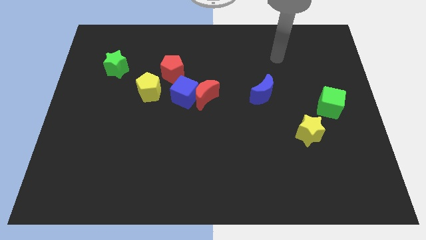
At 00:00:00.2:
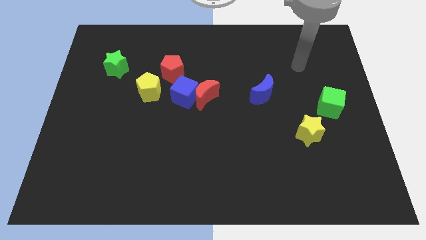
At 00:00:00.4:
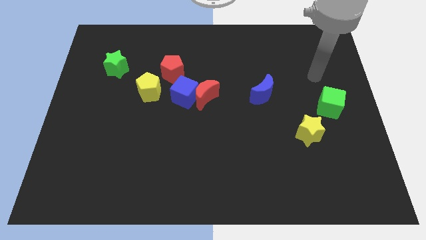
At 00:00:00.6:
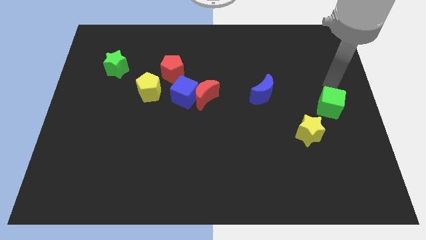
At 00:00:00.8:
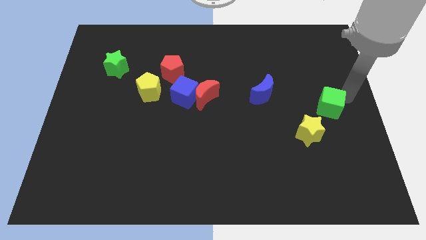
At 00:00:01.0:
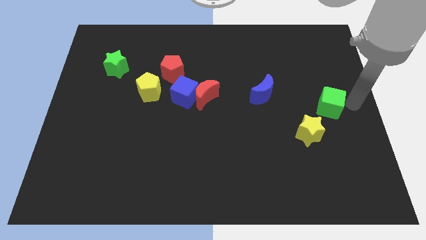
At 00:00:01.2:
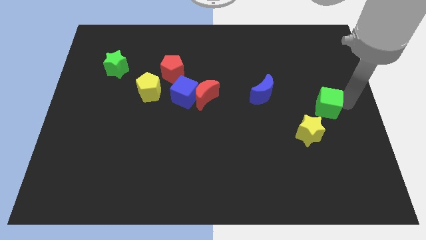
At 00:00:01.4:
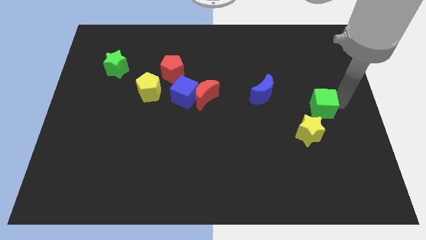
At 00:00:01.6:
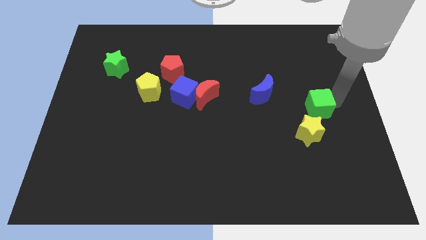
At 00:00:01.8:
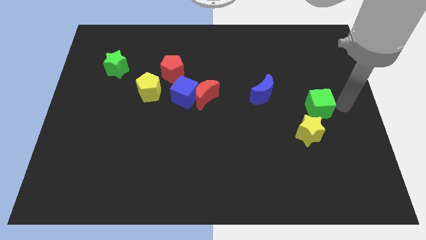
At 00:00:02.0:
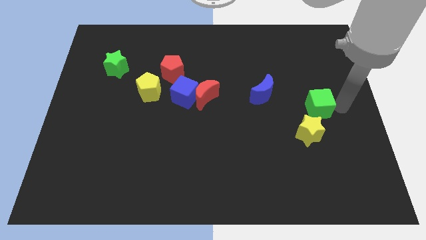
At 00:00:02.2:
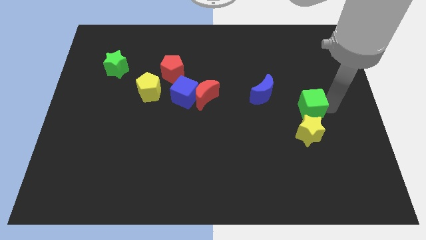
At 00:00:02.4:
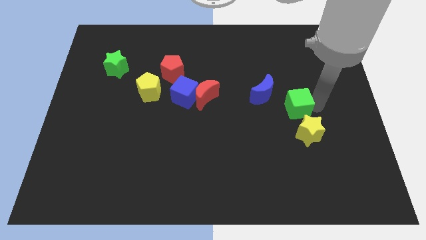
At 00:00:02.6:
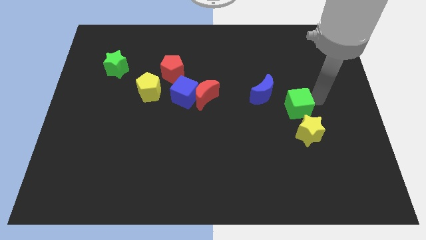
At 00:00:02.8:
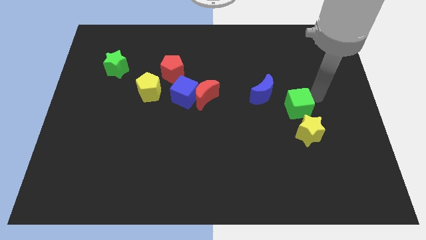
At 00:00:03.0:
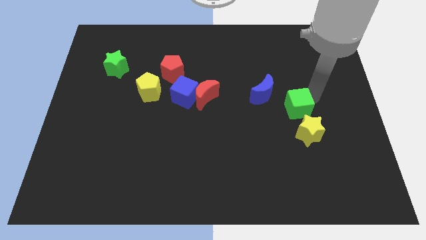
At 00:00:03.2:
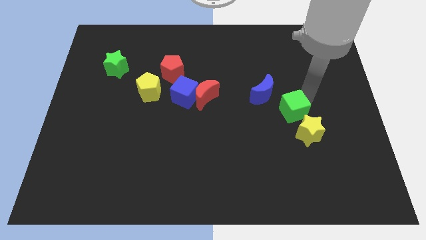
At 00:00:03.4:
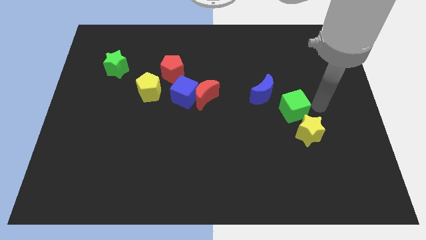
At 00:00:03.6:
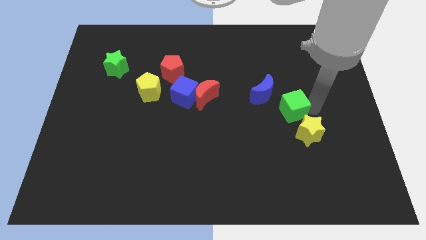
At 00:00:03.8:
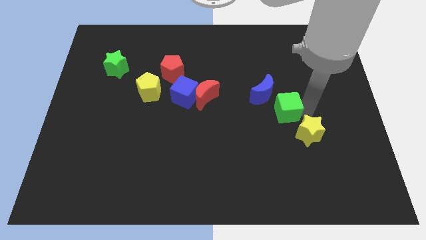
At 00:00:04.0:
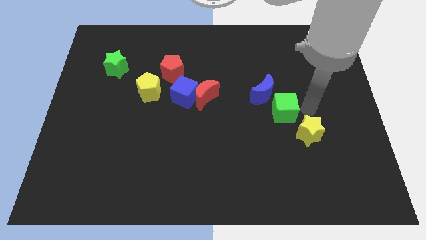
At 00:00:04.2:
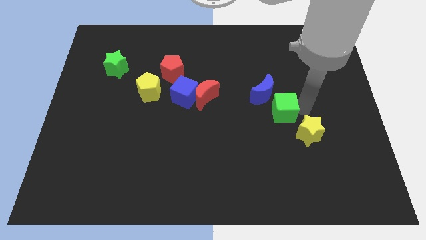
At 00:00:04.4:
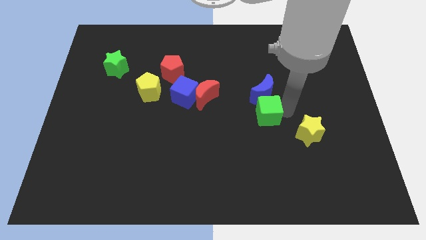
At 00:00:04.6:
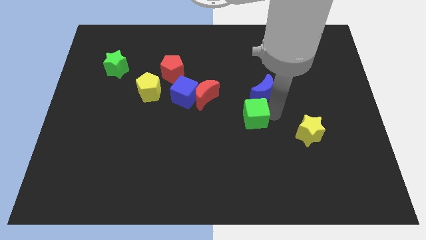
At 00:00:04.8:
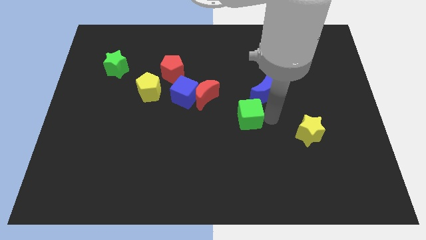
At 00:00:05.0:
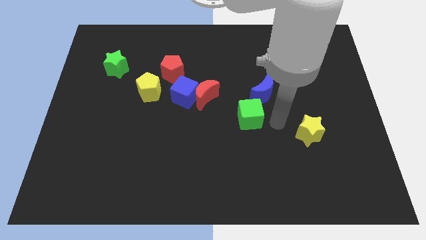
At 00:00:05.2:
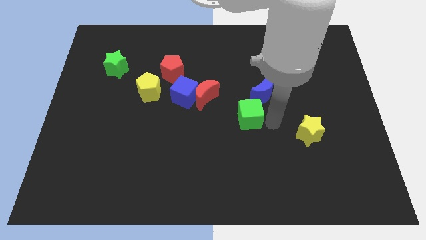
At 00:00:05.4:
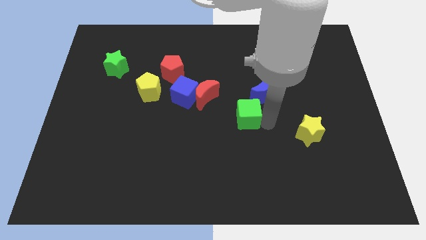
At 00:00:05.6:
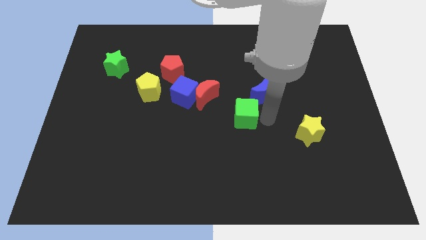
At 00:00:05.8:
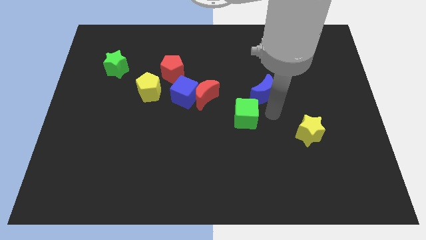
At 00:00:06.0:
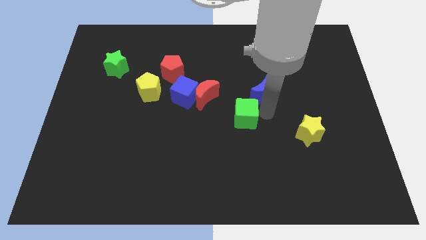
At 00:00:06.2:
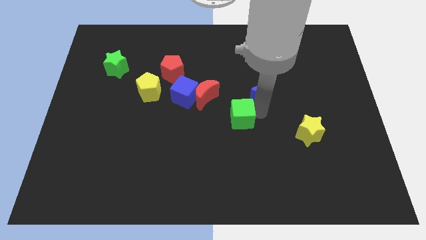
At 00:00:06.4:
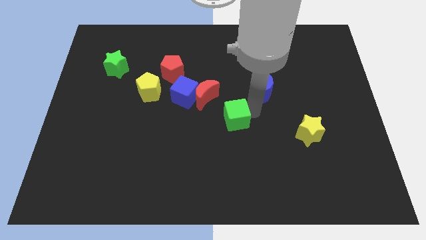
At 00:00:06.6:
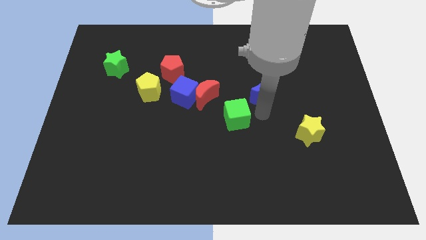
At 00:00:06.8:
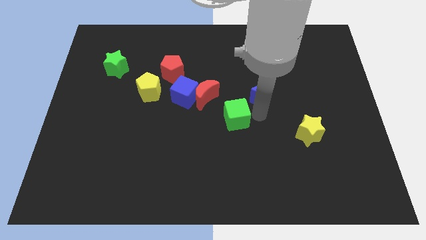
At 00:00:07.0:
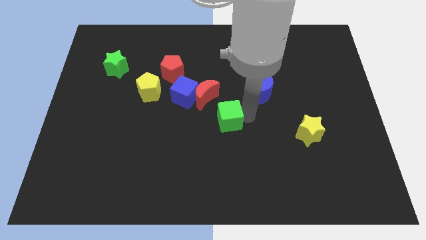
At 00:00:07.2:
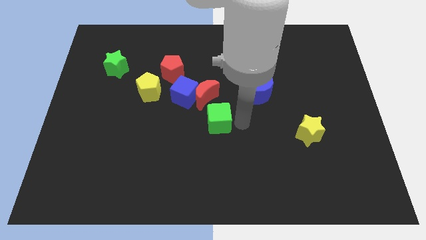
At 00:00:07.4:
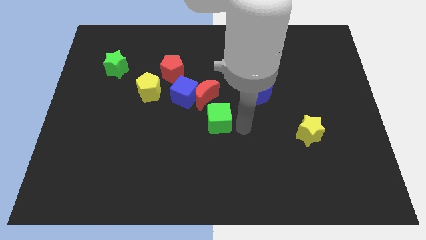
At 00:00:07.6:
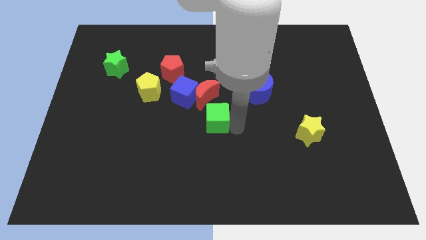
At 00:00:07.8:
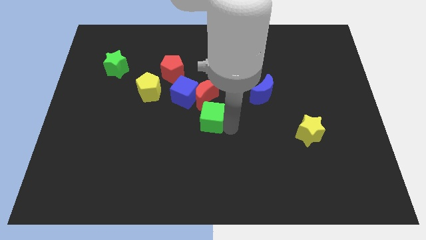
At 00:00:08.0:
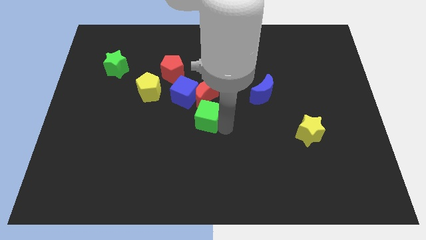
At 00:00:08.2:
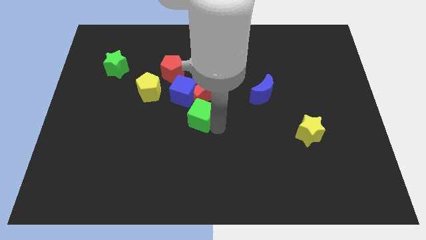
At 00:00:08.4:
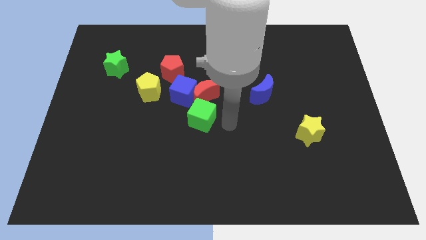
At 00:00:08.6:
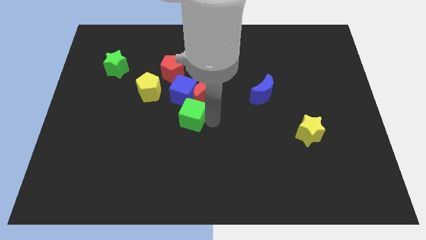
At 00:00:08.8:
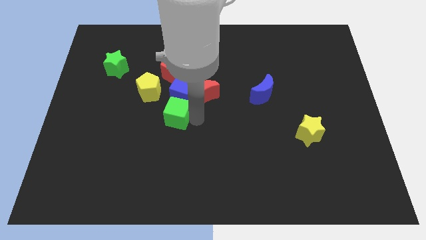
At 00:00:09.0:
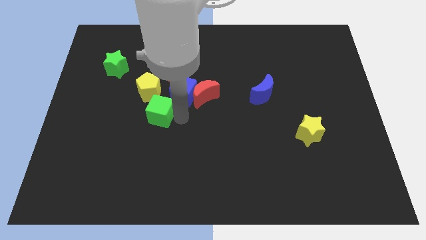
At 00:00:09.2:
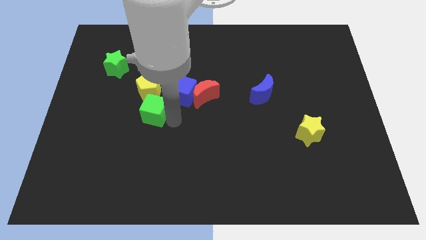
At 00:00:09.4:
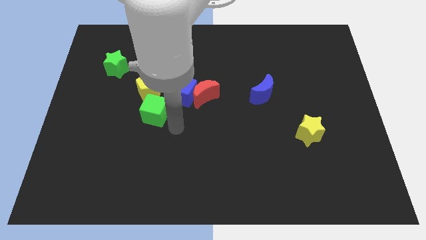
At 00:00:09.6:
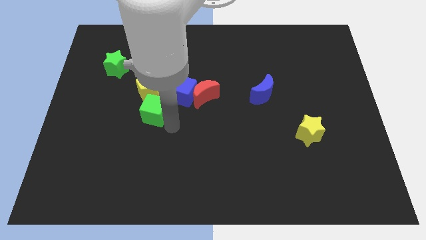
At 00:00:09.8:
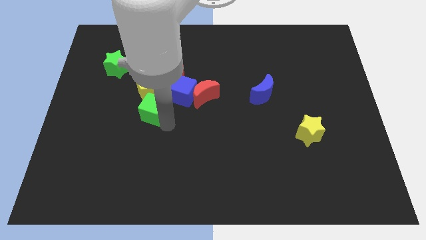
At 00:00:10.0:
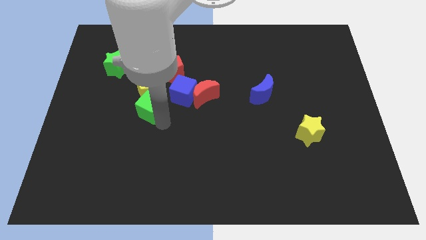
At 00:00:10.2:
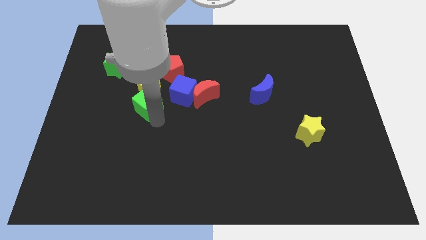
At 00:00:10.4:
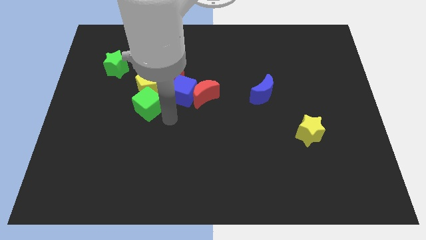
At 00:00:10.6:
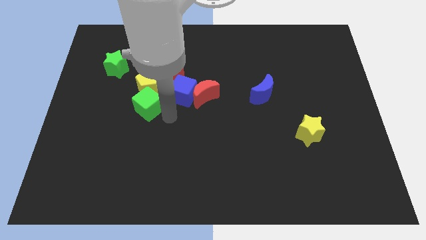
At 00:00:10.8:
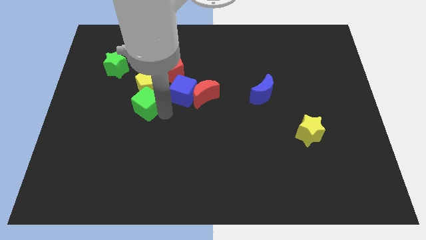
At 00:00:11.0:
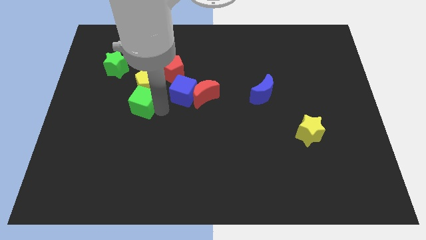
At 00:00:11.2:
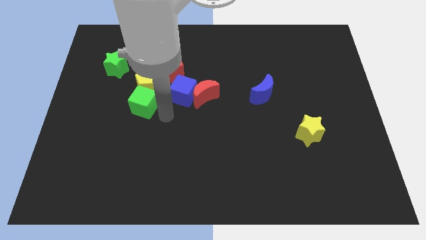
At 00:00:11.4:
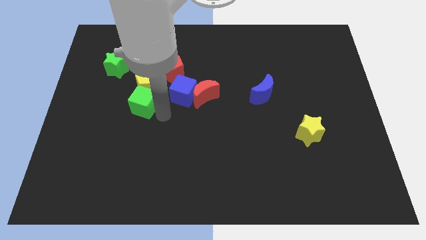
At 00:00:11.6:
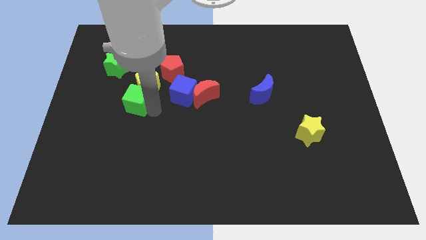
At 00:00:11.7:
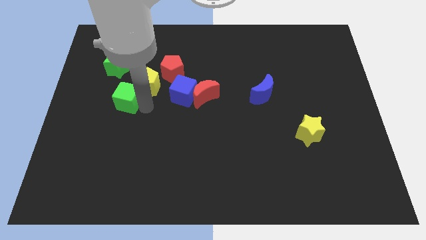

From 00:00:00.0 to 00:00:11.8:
put the green cube just left of the yellow pentagon

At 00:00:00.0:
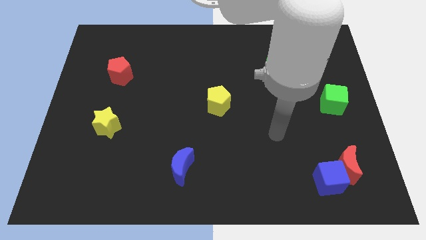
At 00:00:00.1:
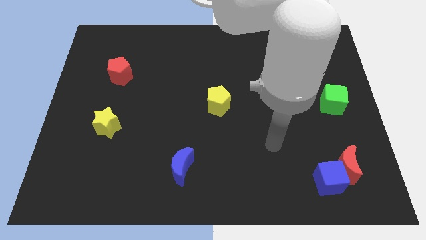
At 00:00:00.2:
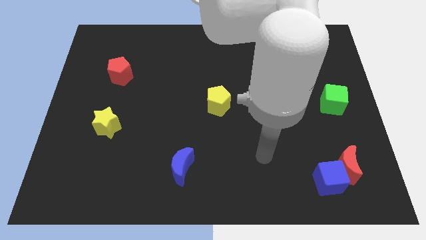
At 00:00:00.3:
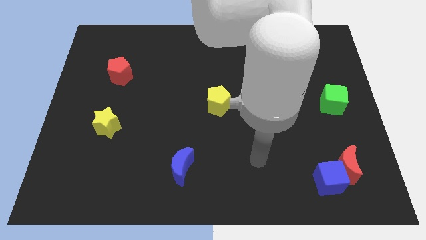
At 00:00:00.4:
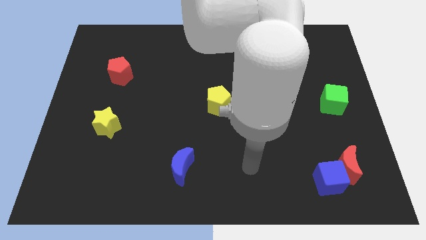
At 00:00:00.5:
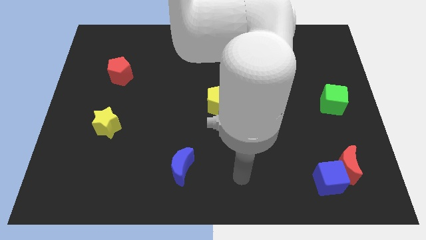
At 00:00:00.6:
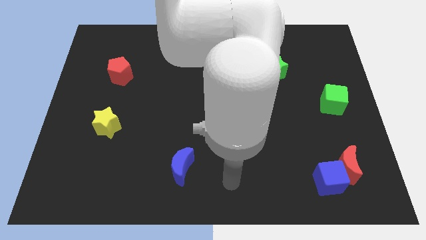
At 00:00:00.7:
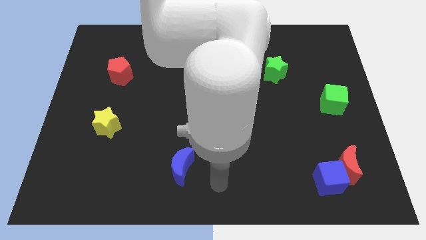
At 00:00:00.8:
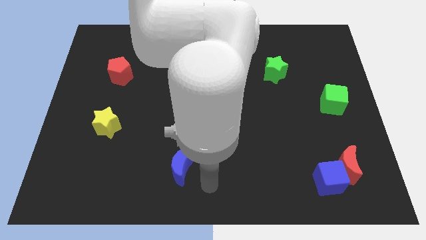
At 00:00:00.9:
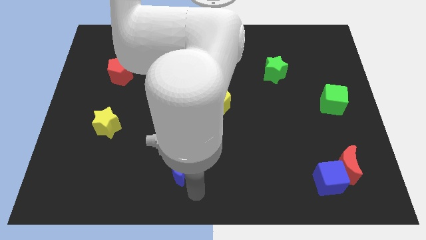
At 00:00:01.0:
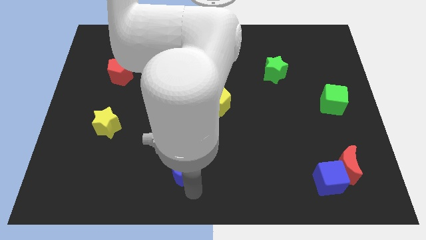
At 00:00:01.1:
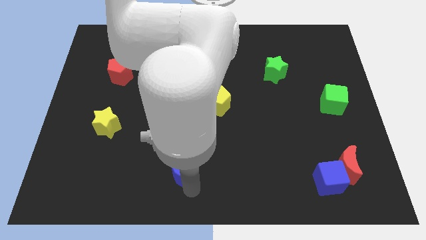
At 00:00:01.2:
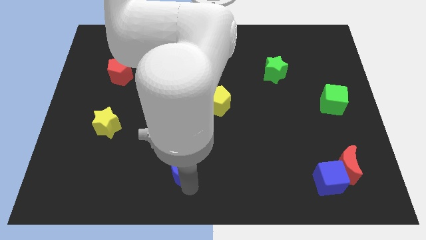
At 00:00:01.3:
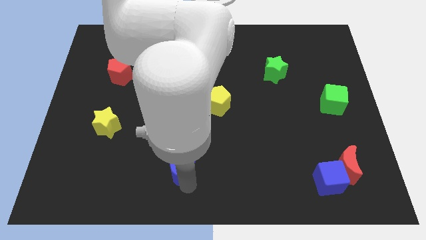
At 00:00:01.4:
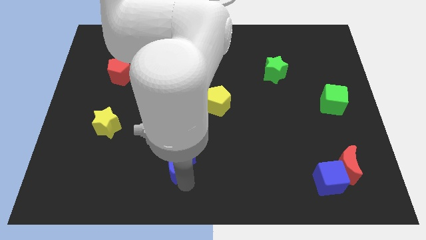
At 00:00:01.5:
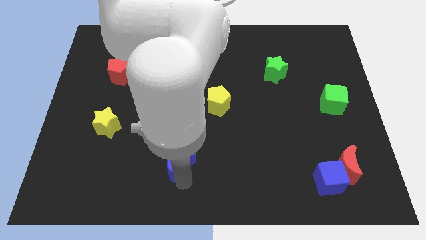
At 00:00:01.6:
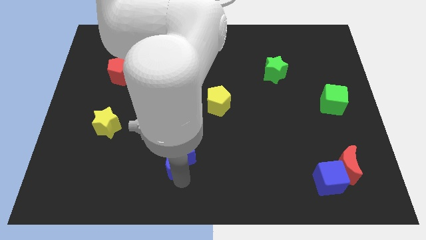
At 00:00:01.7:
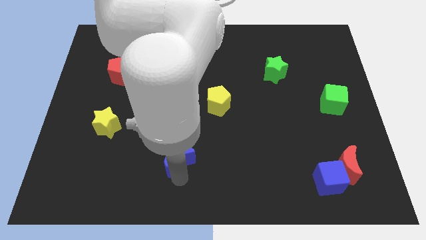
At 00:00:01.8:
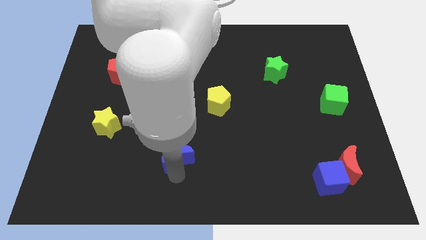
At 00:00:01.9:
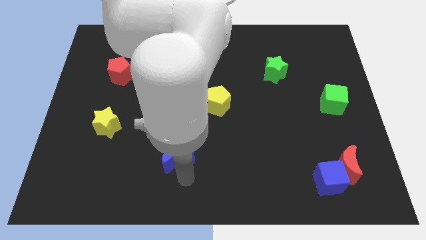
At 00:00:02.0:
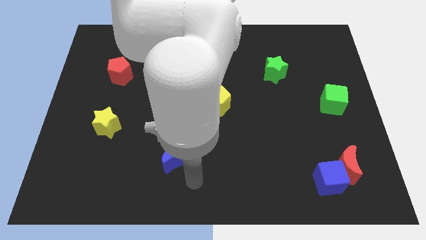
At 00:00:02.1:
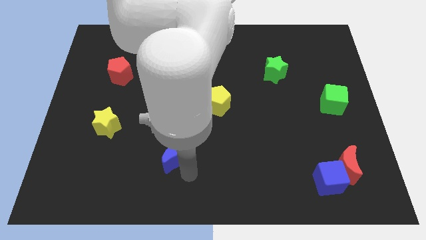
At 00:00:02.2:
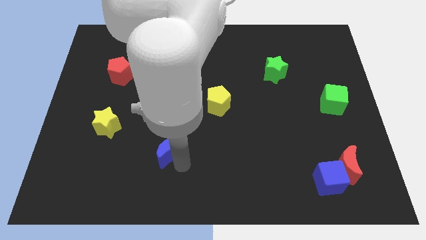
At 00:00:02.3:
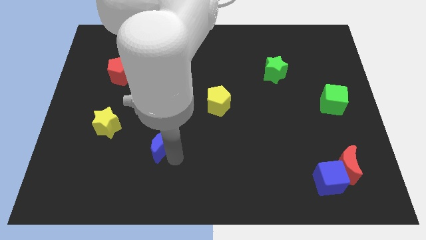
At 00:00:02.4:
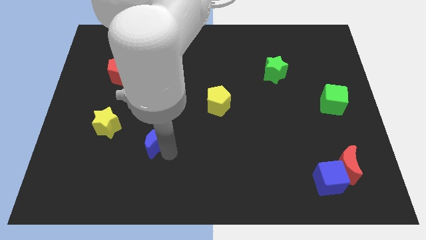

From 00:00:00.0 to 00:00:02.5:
move the blue moon to the right of the yellow star
